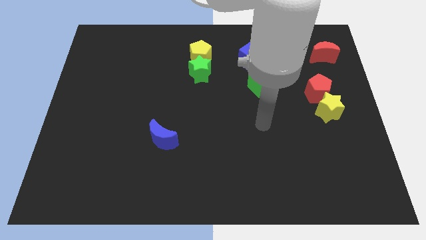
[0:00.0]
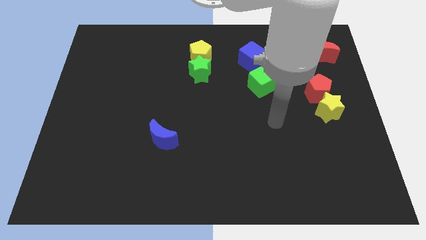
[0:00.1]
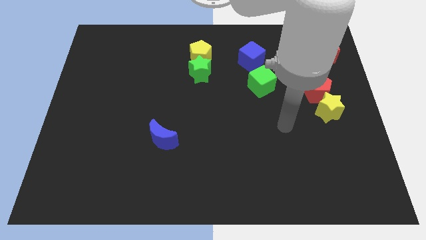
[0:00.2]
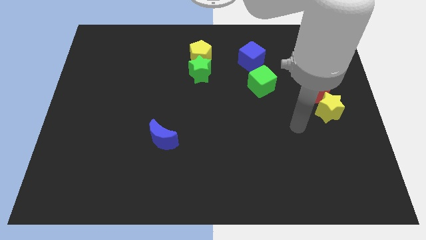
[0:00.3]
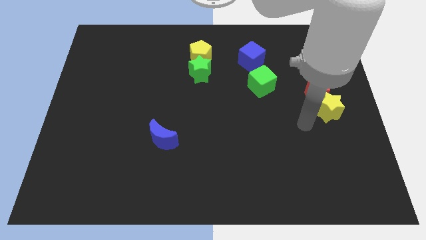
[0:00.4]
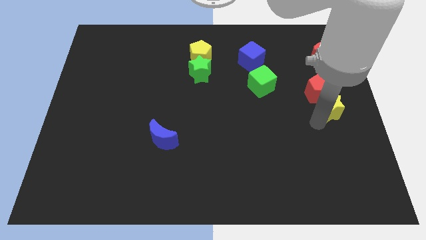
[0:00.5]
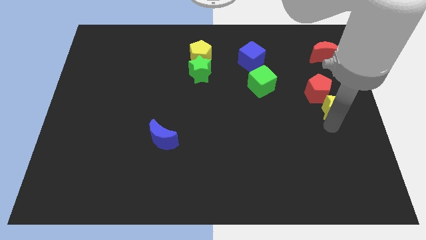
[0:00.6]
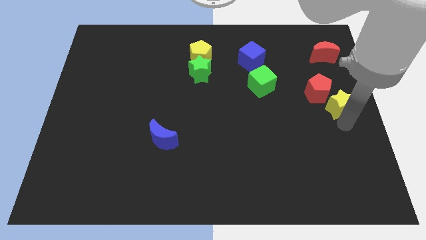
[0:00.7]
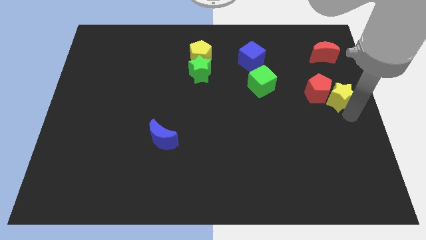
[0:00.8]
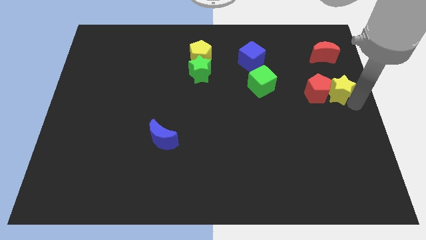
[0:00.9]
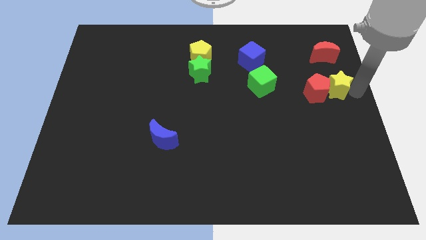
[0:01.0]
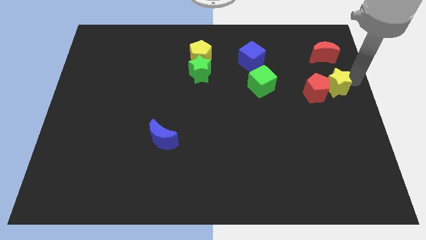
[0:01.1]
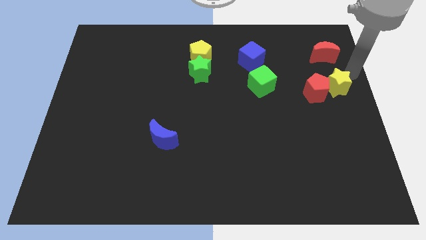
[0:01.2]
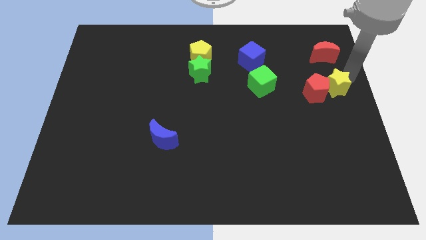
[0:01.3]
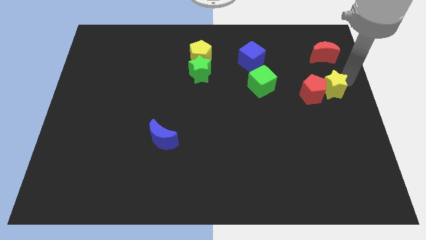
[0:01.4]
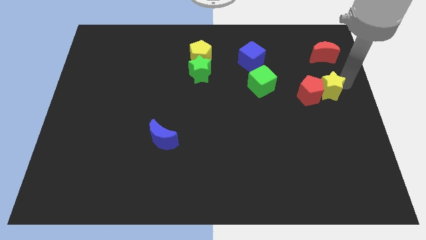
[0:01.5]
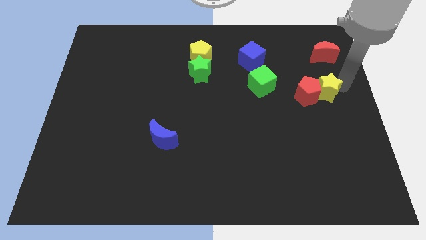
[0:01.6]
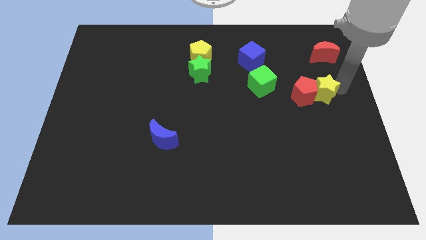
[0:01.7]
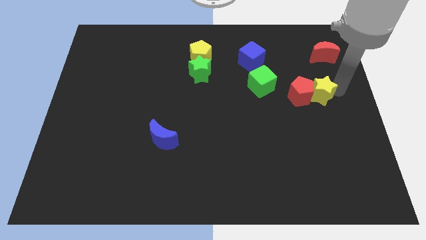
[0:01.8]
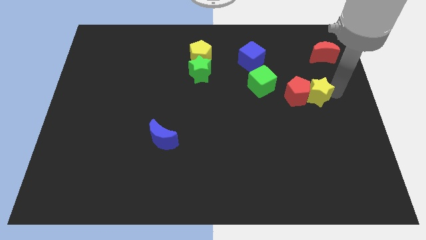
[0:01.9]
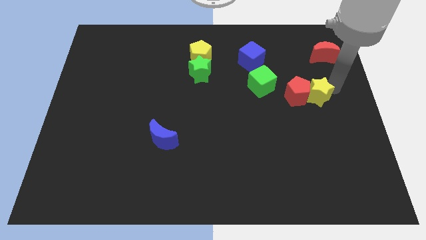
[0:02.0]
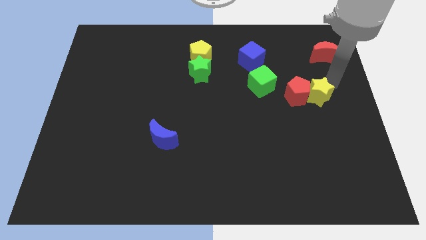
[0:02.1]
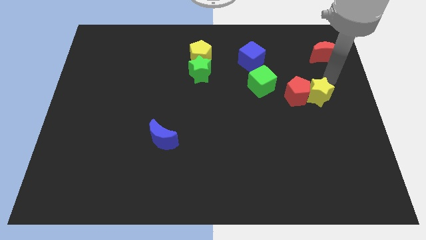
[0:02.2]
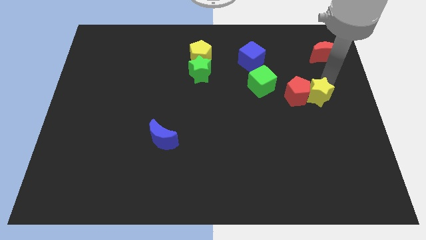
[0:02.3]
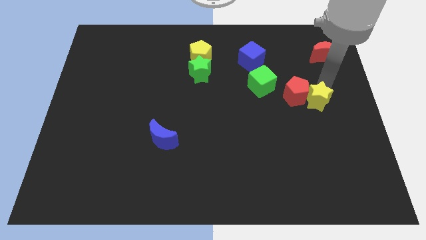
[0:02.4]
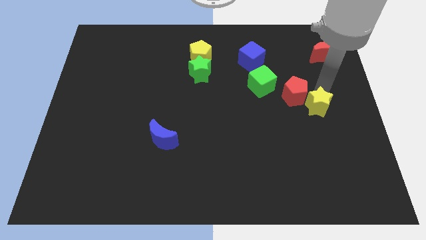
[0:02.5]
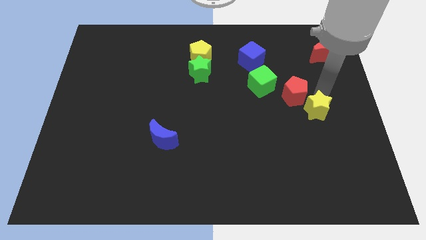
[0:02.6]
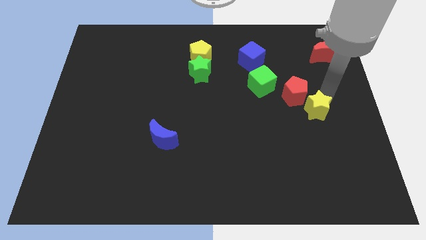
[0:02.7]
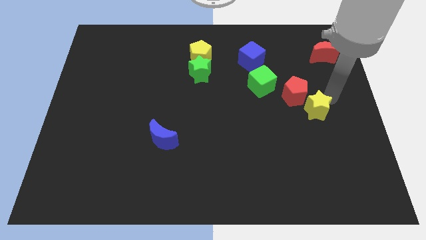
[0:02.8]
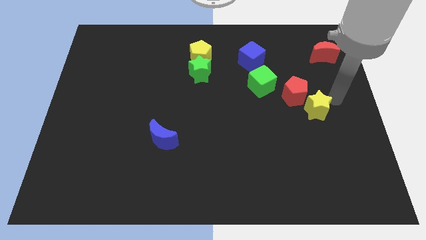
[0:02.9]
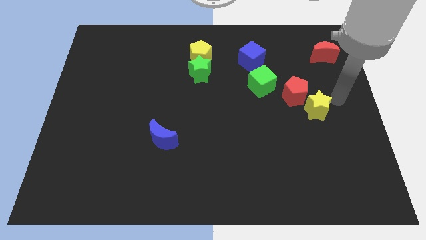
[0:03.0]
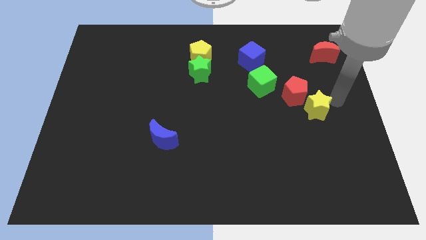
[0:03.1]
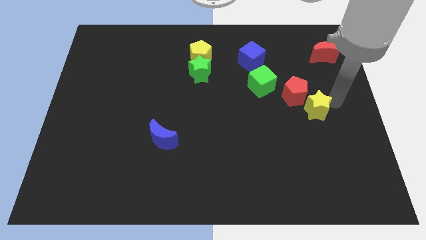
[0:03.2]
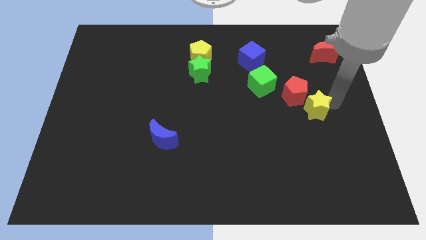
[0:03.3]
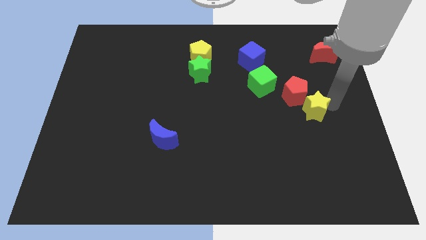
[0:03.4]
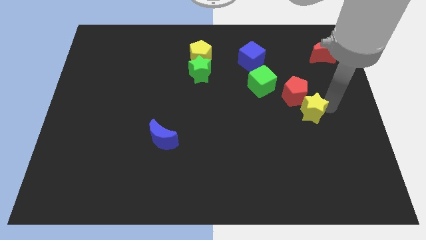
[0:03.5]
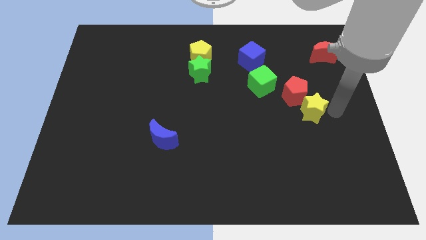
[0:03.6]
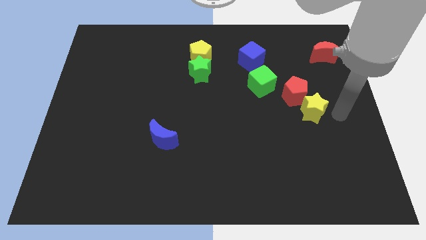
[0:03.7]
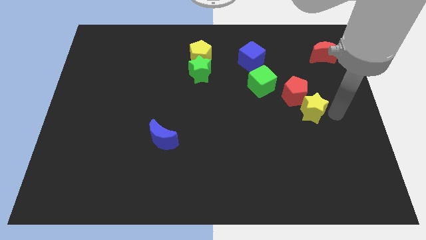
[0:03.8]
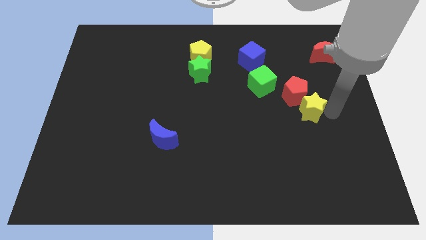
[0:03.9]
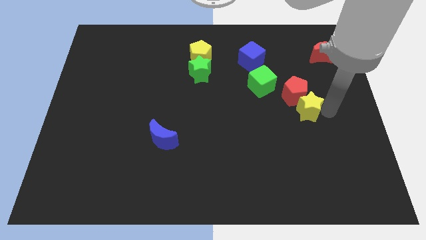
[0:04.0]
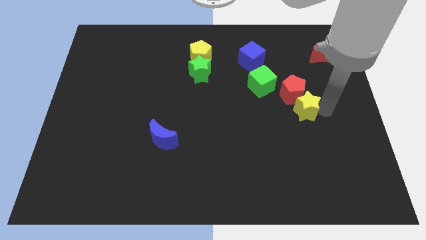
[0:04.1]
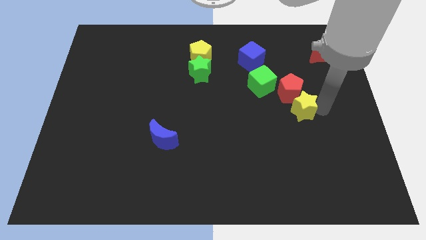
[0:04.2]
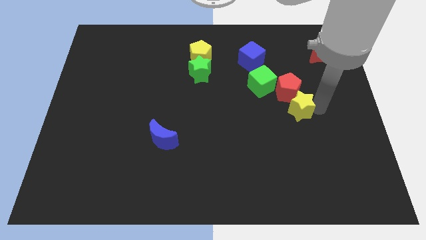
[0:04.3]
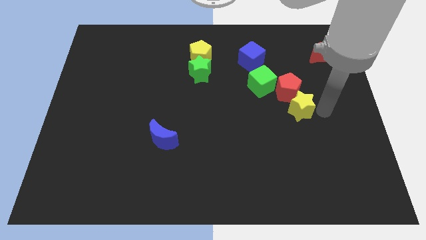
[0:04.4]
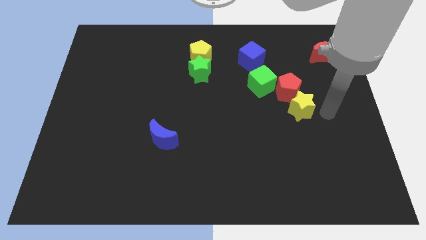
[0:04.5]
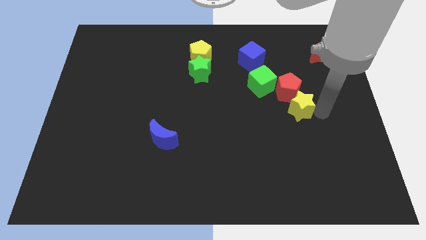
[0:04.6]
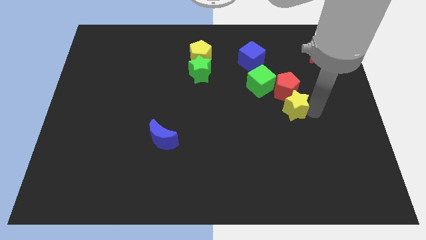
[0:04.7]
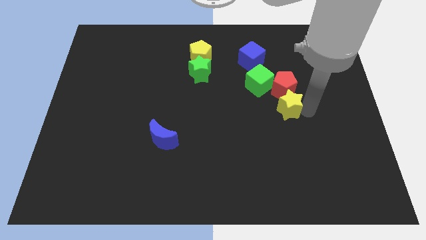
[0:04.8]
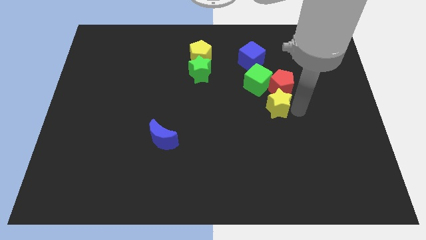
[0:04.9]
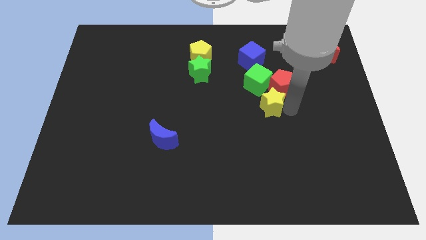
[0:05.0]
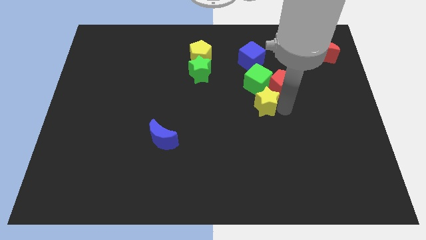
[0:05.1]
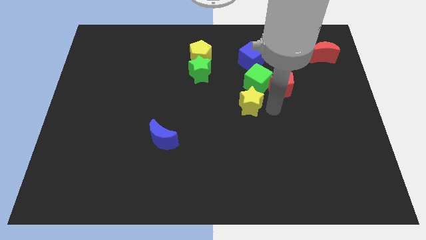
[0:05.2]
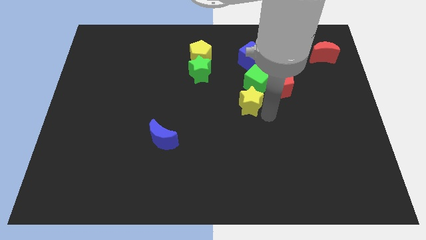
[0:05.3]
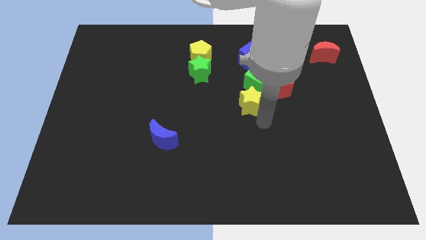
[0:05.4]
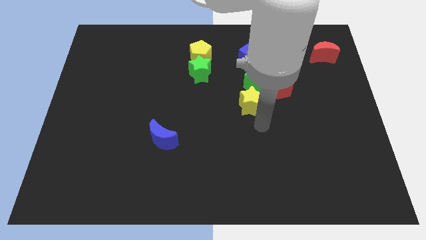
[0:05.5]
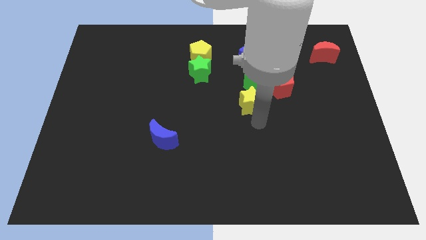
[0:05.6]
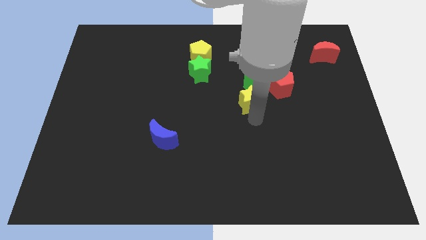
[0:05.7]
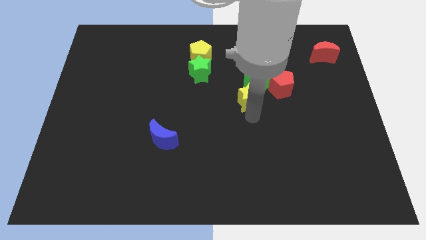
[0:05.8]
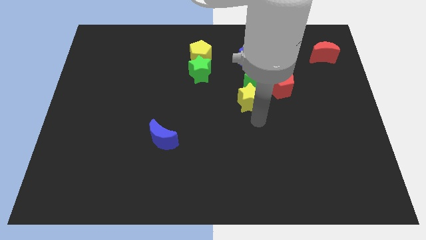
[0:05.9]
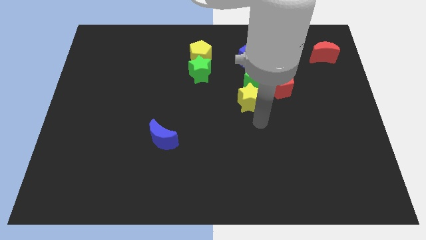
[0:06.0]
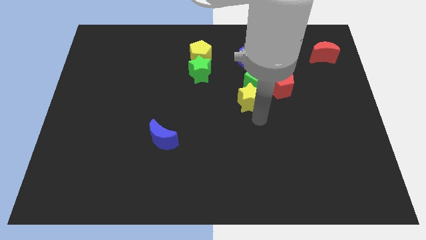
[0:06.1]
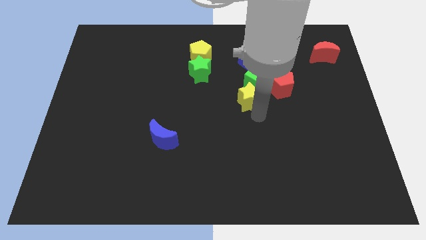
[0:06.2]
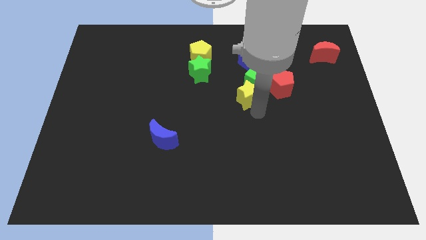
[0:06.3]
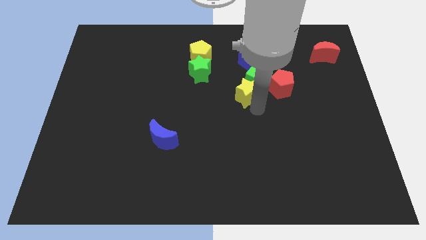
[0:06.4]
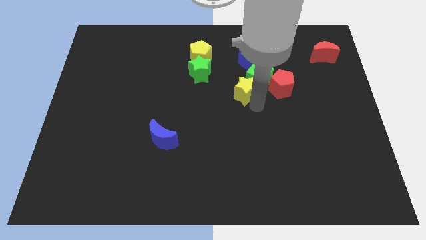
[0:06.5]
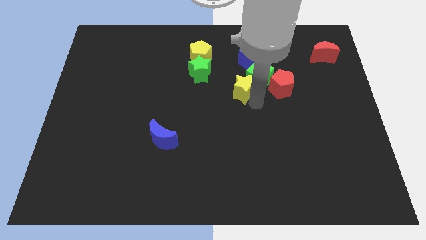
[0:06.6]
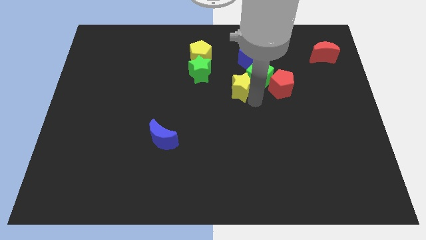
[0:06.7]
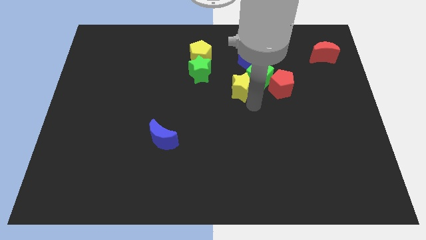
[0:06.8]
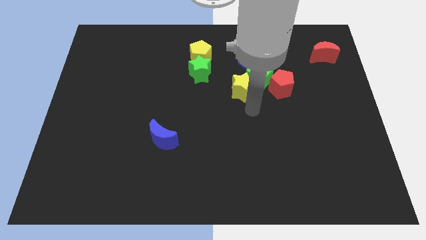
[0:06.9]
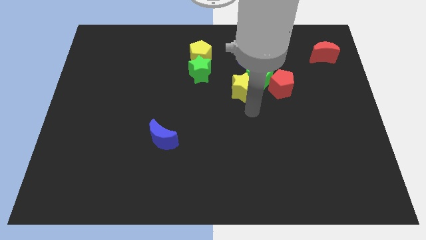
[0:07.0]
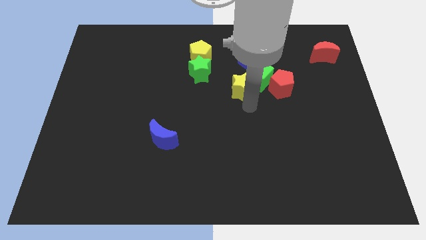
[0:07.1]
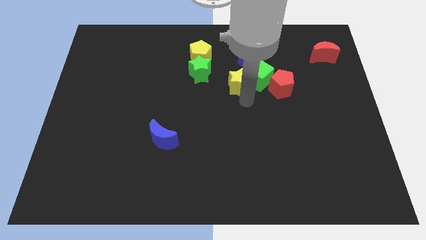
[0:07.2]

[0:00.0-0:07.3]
slide the yellow star diagonally down and to the left of the blue cube

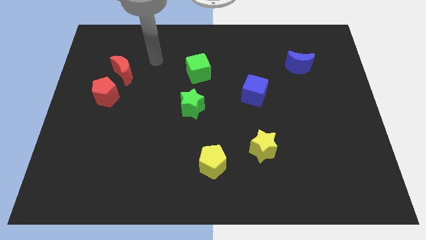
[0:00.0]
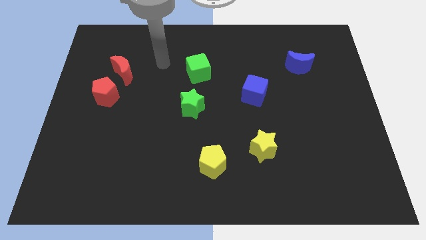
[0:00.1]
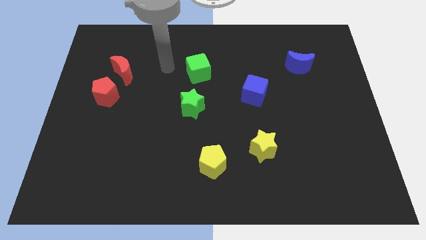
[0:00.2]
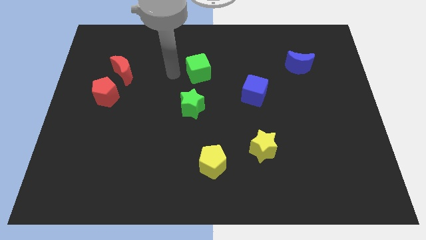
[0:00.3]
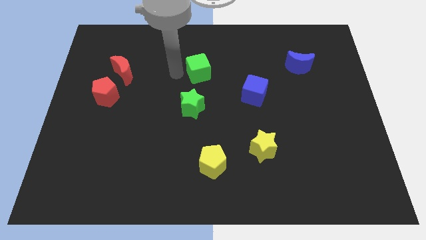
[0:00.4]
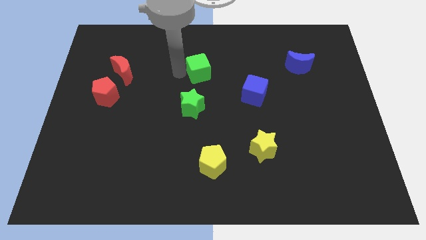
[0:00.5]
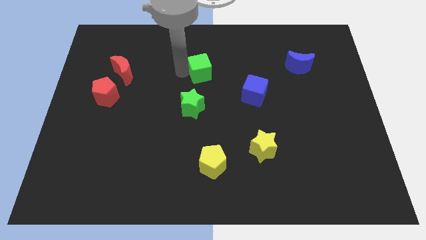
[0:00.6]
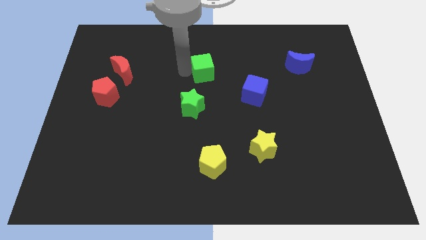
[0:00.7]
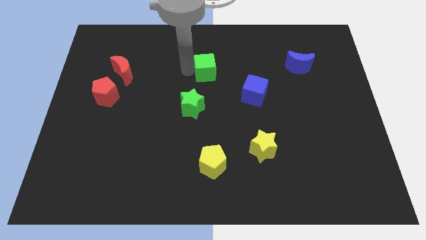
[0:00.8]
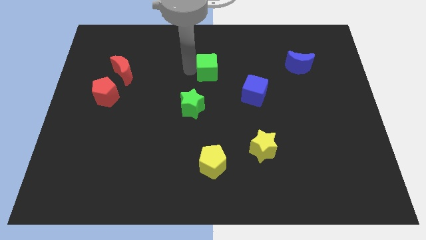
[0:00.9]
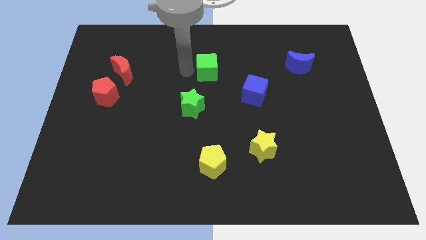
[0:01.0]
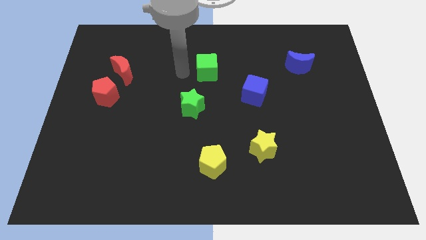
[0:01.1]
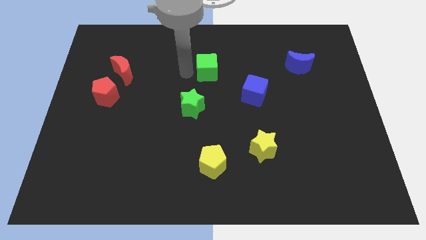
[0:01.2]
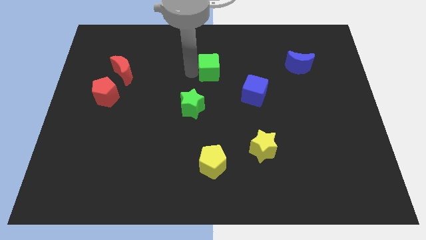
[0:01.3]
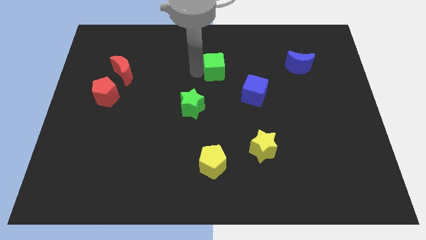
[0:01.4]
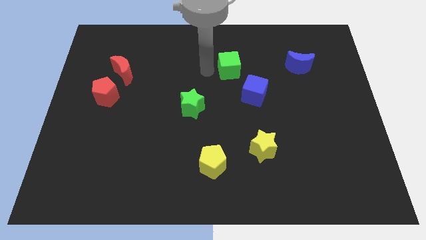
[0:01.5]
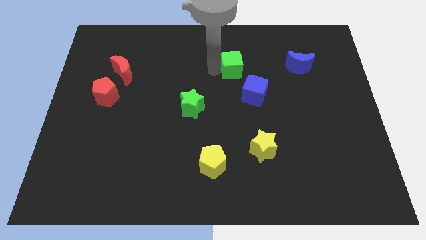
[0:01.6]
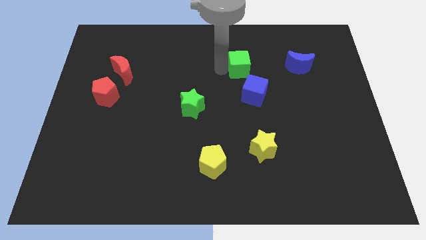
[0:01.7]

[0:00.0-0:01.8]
push the green cube to the left side of the blue moon
